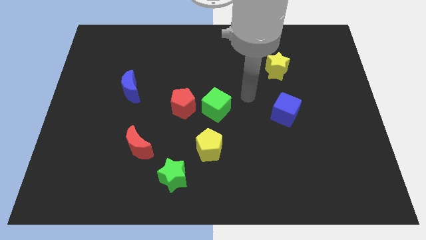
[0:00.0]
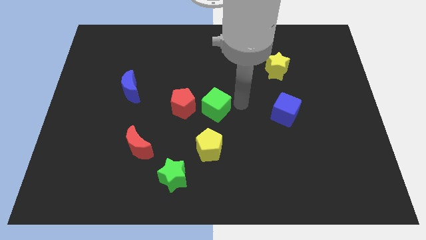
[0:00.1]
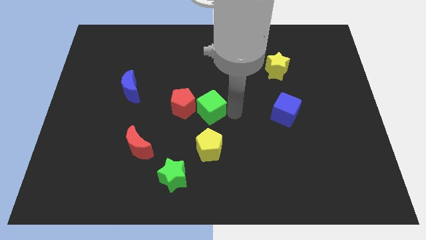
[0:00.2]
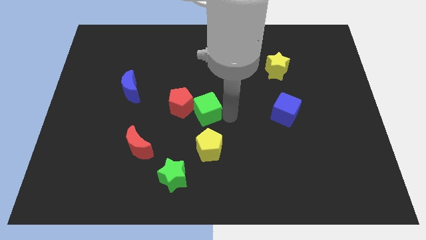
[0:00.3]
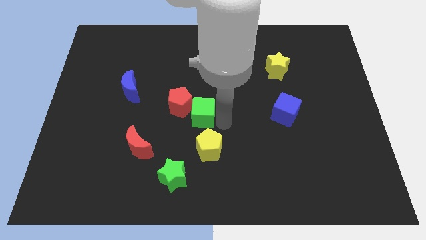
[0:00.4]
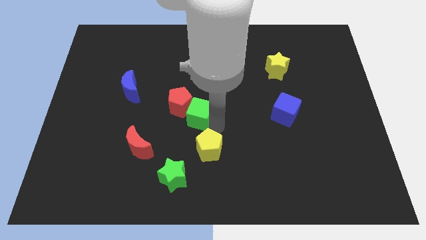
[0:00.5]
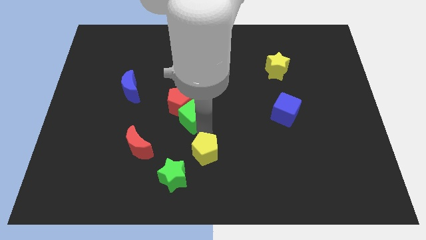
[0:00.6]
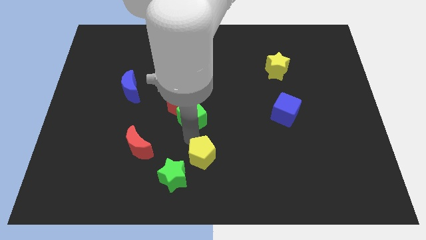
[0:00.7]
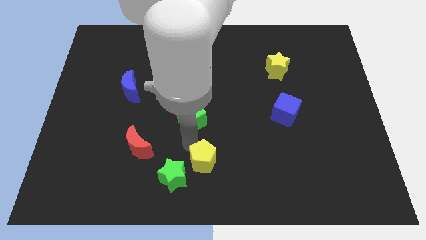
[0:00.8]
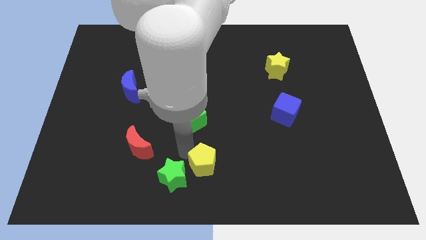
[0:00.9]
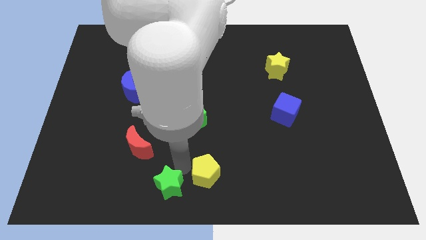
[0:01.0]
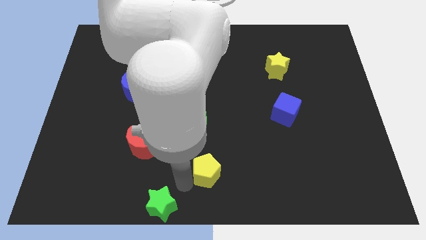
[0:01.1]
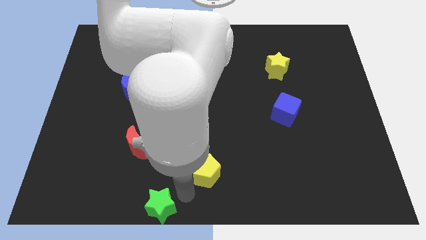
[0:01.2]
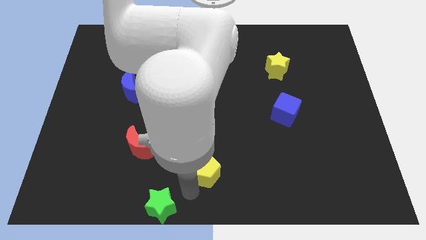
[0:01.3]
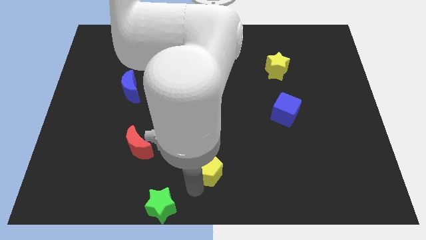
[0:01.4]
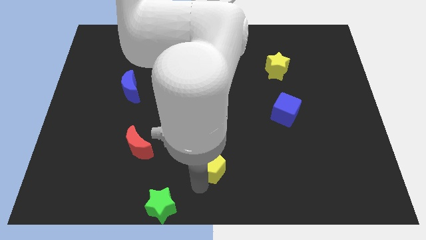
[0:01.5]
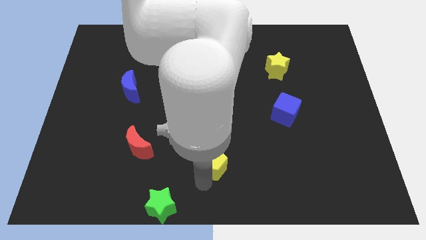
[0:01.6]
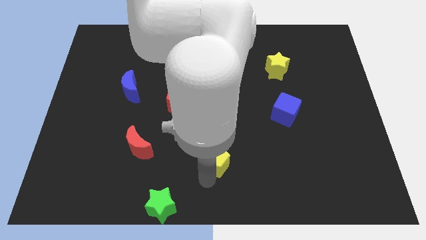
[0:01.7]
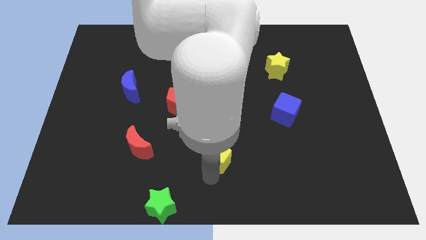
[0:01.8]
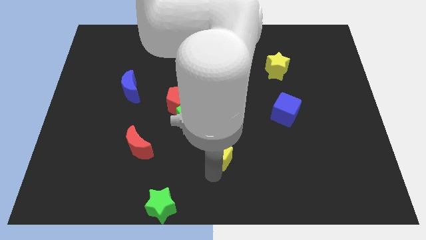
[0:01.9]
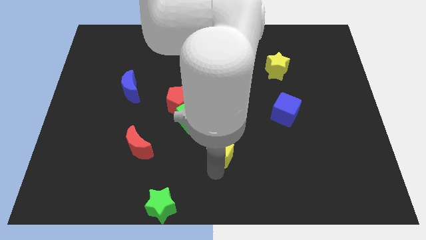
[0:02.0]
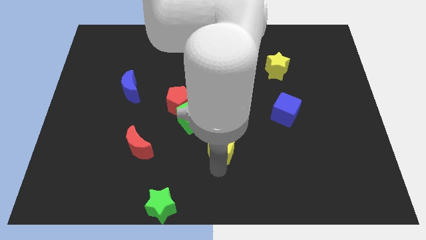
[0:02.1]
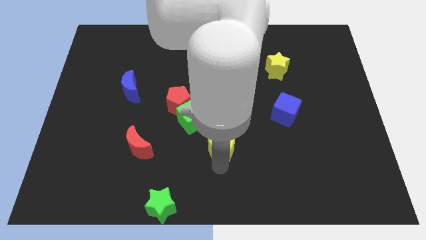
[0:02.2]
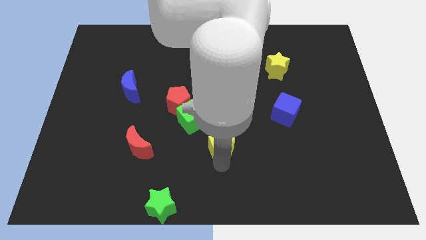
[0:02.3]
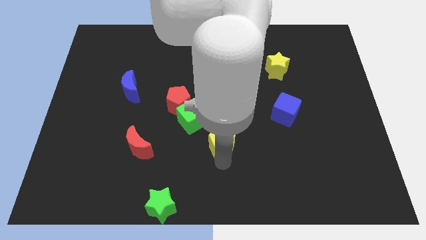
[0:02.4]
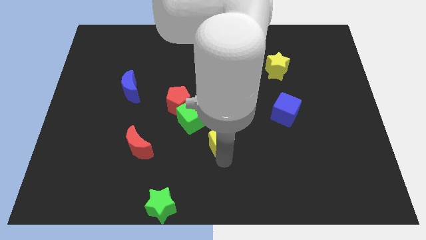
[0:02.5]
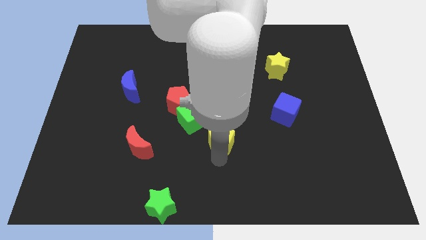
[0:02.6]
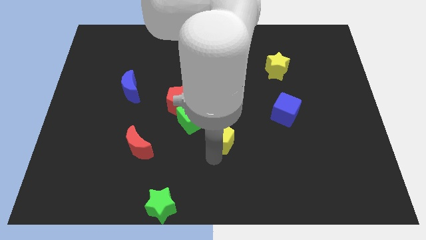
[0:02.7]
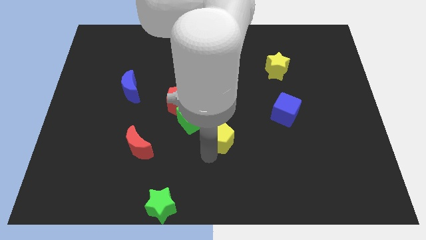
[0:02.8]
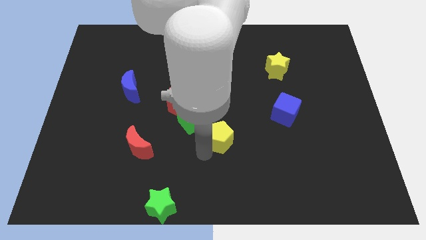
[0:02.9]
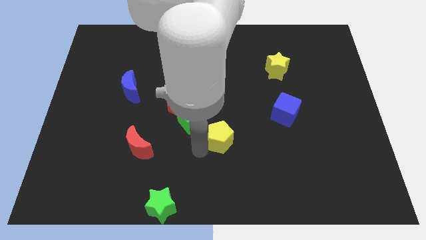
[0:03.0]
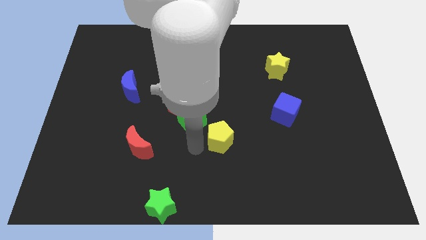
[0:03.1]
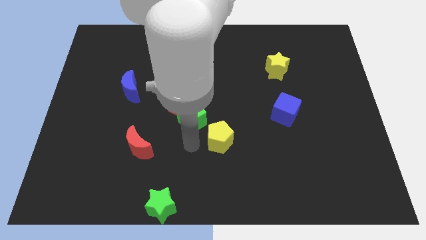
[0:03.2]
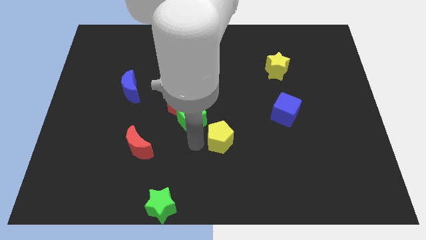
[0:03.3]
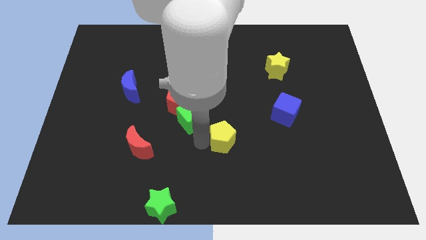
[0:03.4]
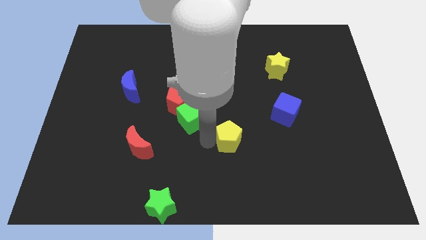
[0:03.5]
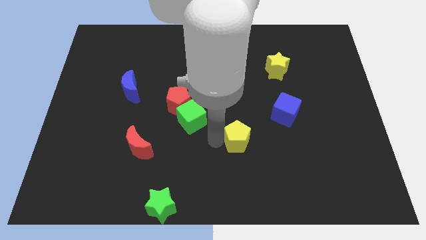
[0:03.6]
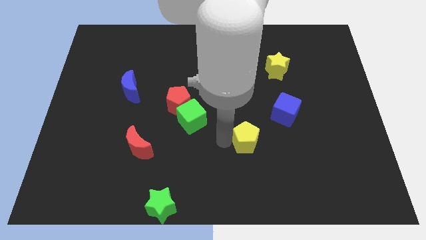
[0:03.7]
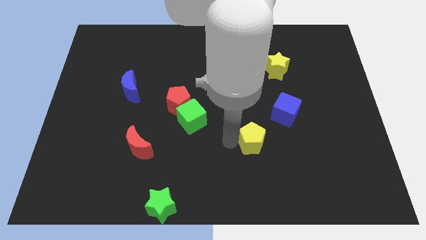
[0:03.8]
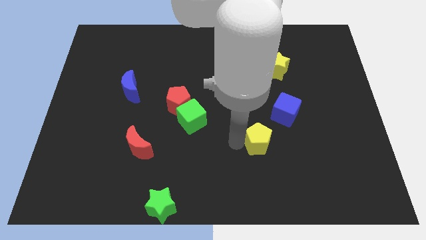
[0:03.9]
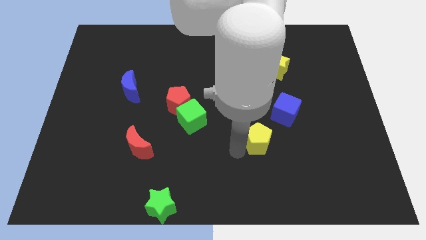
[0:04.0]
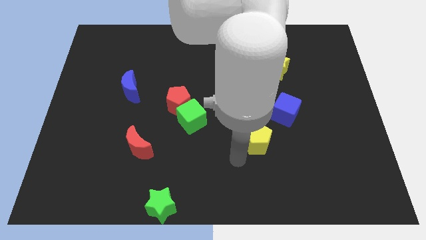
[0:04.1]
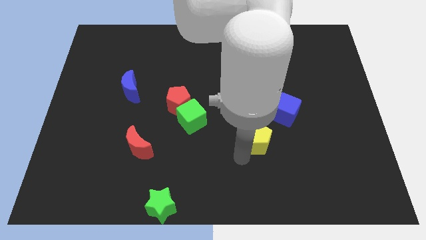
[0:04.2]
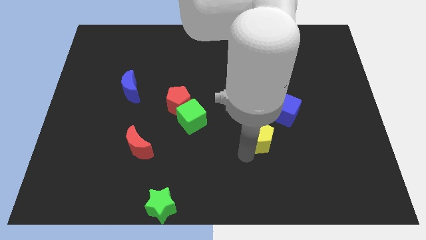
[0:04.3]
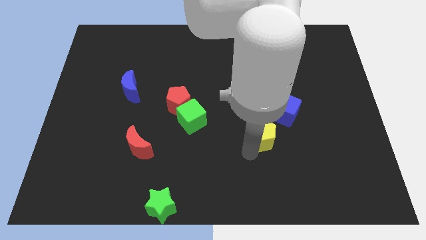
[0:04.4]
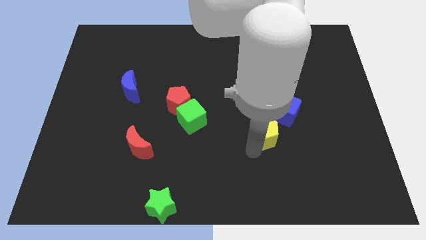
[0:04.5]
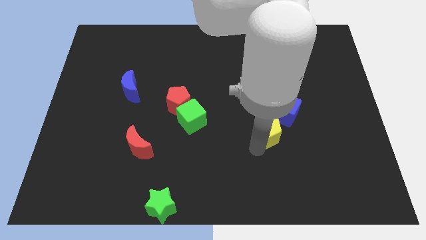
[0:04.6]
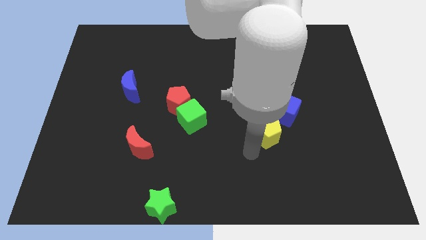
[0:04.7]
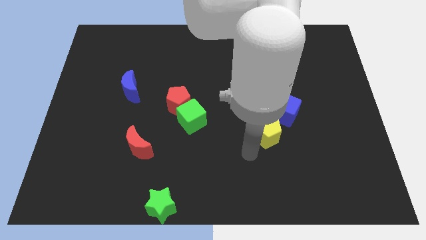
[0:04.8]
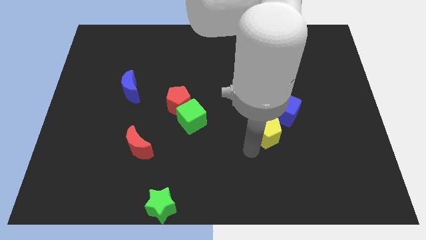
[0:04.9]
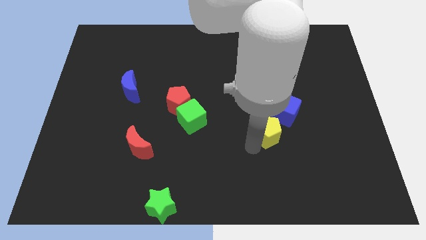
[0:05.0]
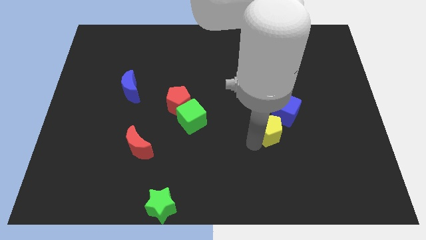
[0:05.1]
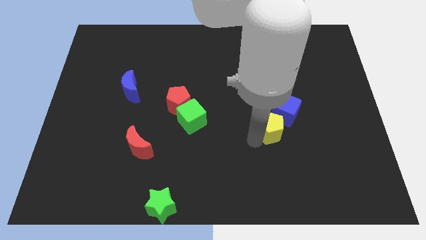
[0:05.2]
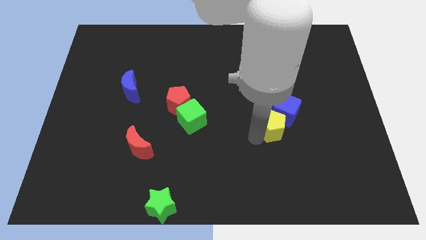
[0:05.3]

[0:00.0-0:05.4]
push the yellow pentagon towards the blue cube

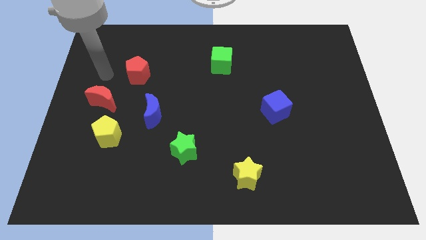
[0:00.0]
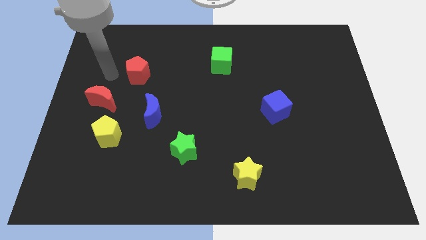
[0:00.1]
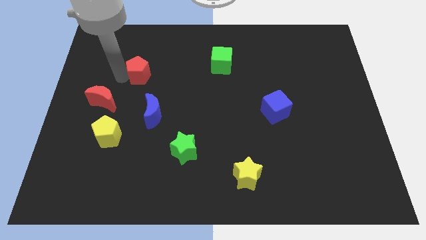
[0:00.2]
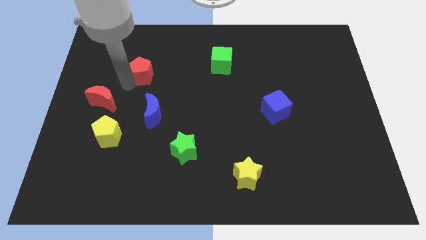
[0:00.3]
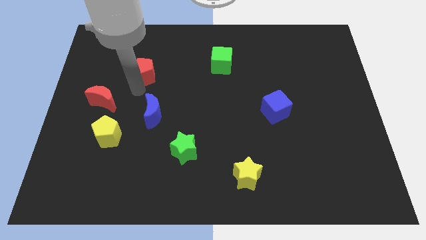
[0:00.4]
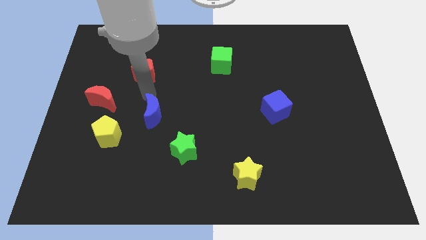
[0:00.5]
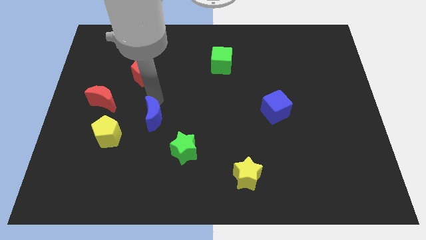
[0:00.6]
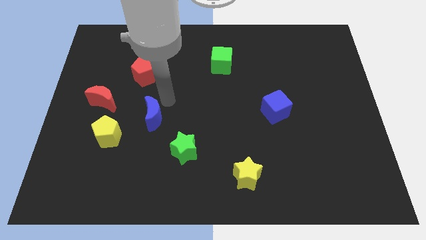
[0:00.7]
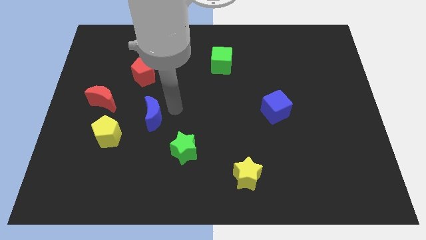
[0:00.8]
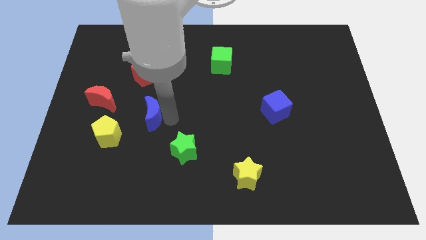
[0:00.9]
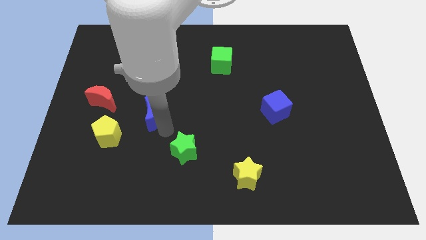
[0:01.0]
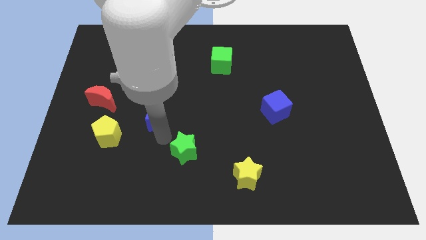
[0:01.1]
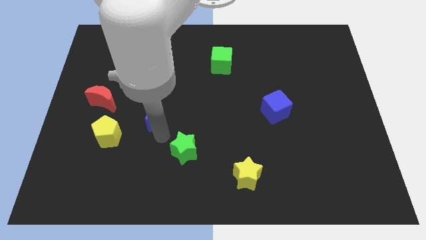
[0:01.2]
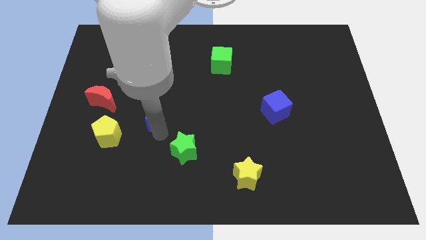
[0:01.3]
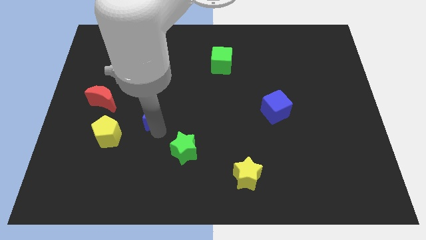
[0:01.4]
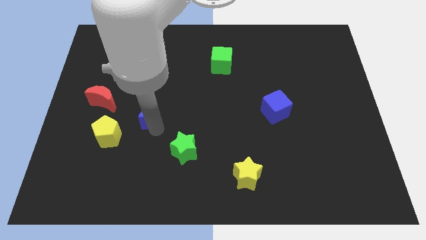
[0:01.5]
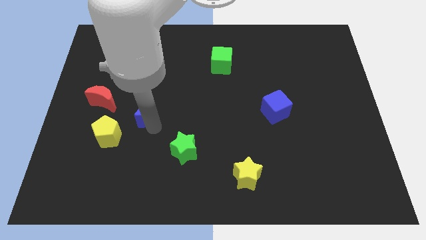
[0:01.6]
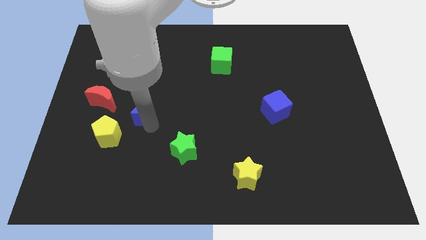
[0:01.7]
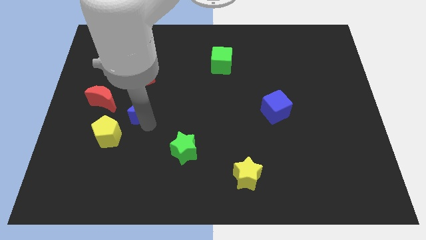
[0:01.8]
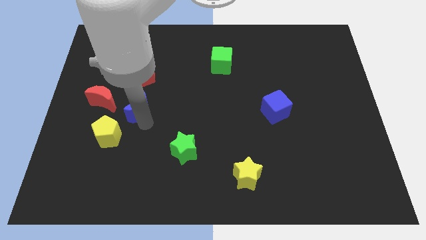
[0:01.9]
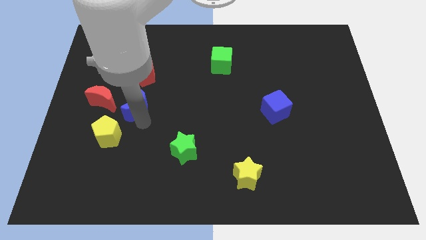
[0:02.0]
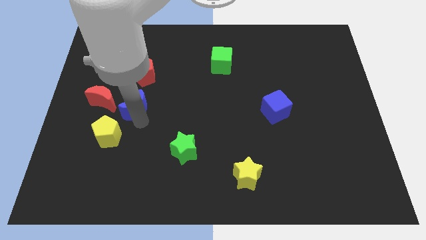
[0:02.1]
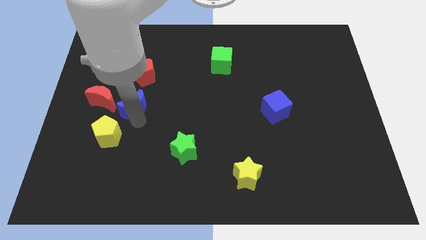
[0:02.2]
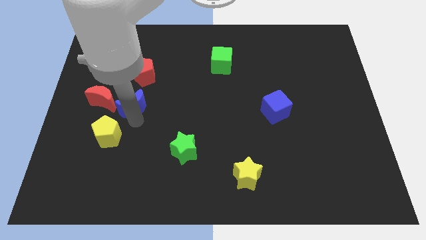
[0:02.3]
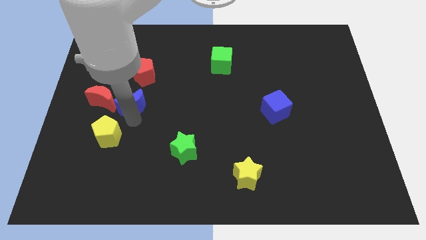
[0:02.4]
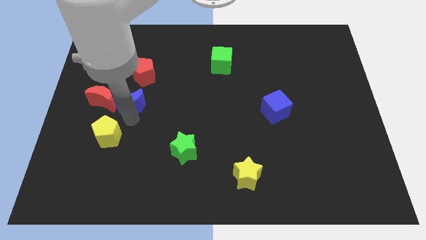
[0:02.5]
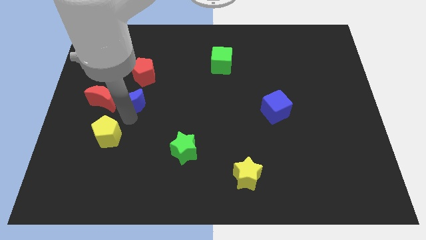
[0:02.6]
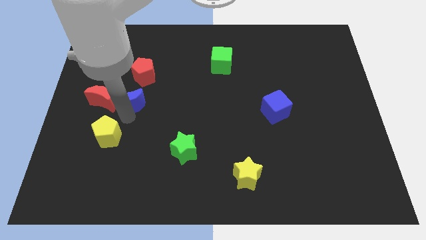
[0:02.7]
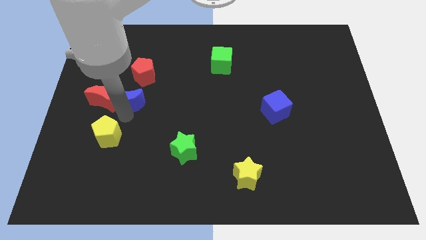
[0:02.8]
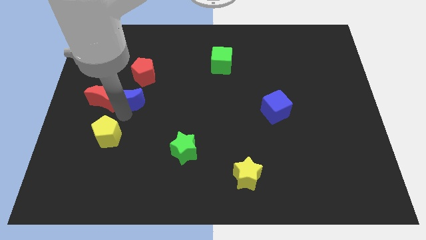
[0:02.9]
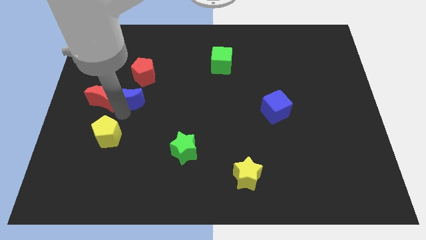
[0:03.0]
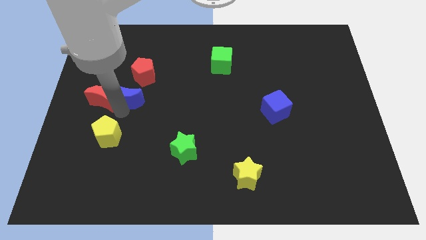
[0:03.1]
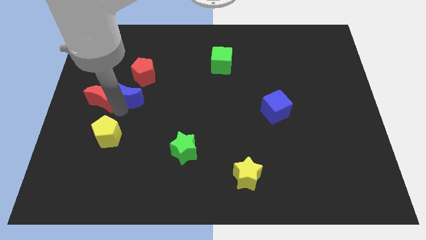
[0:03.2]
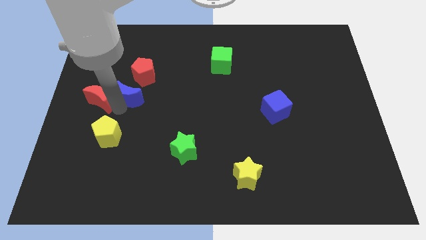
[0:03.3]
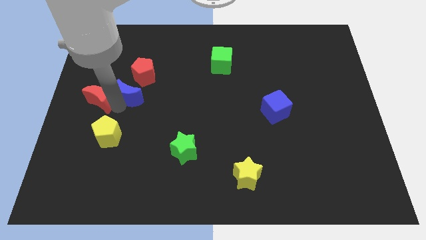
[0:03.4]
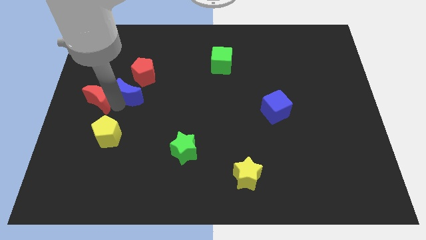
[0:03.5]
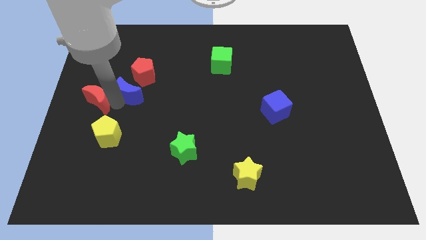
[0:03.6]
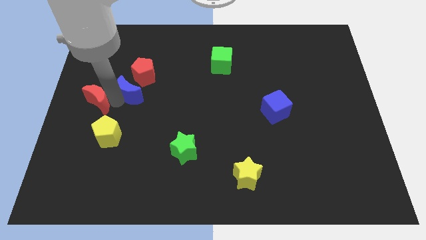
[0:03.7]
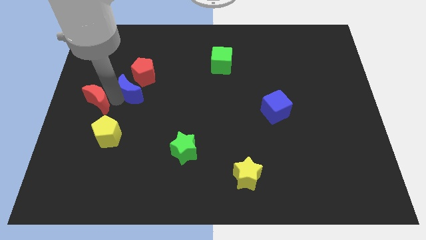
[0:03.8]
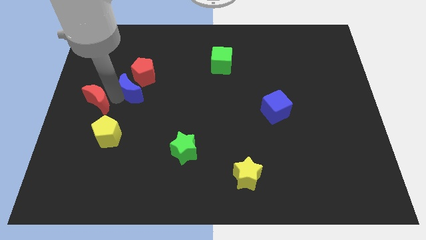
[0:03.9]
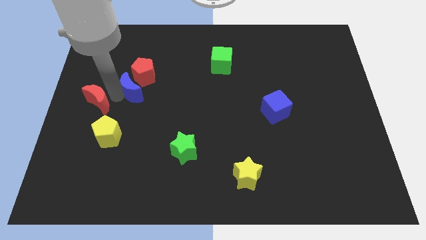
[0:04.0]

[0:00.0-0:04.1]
put the blue moon to the red pentagon
